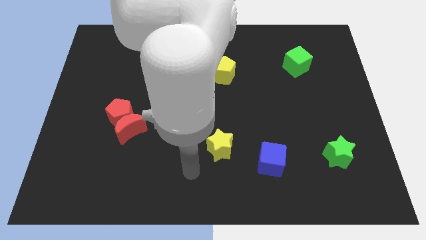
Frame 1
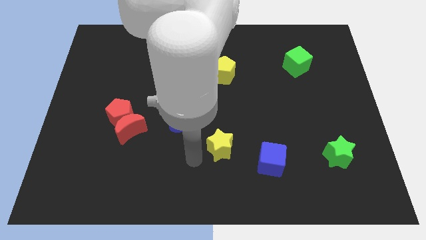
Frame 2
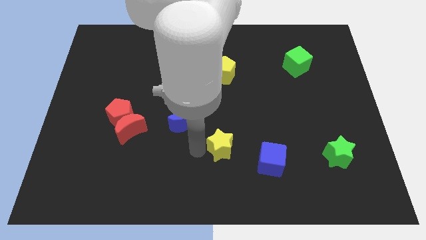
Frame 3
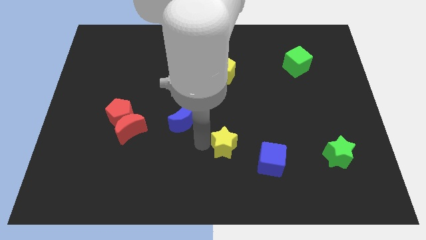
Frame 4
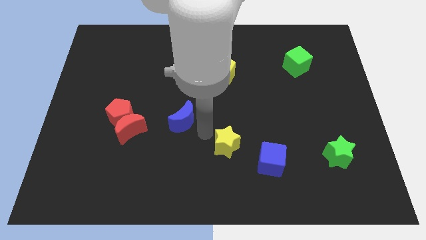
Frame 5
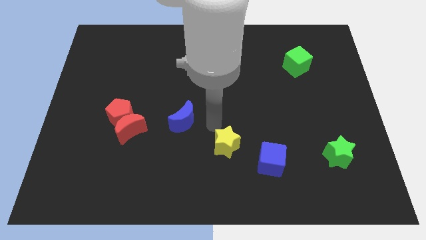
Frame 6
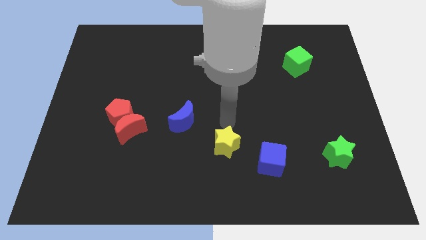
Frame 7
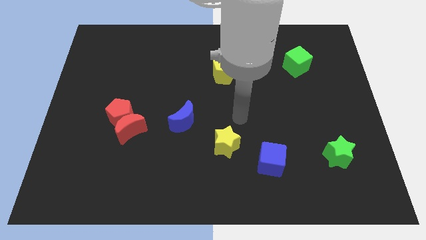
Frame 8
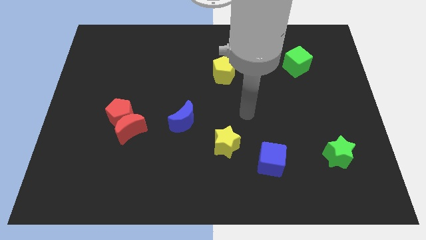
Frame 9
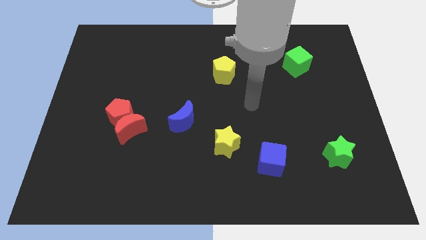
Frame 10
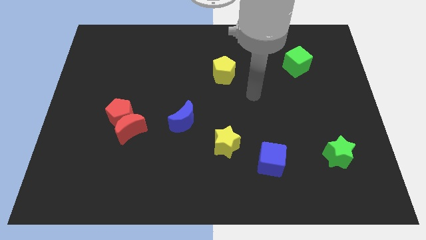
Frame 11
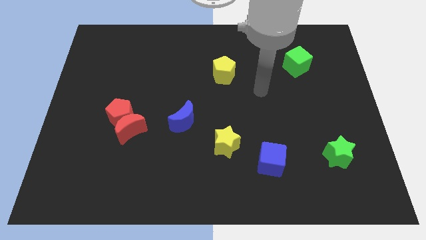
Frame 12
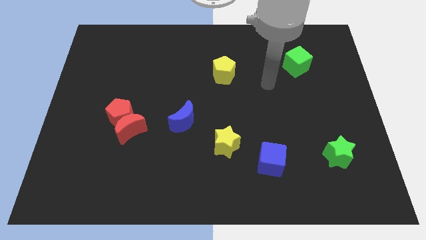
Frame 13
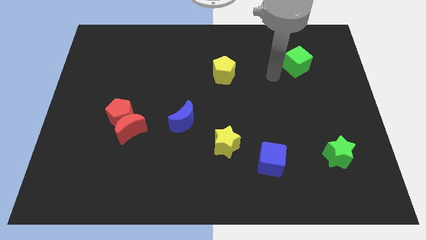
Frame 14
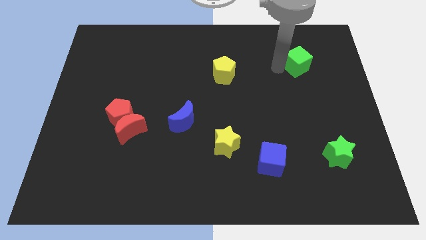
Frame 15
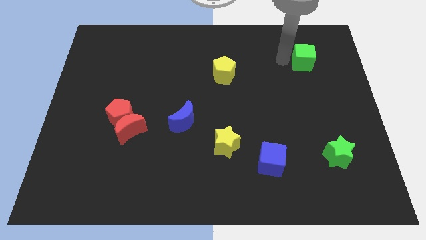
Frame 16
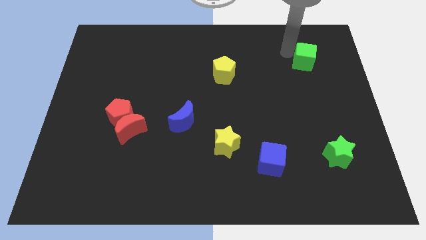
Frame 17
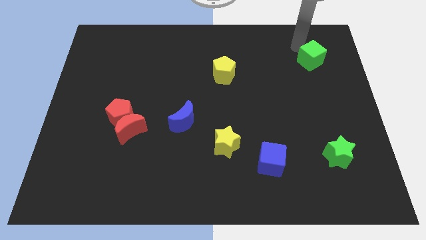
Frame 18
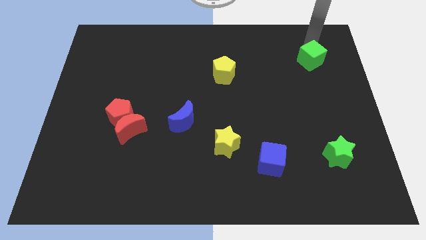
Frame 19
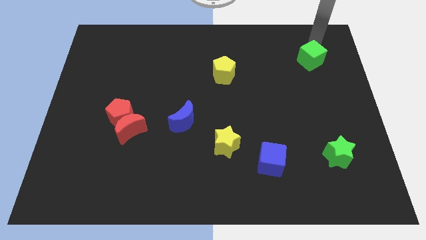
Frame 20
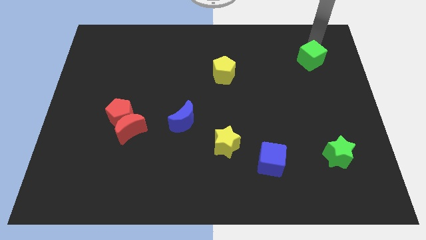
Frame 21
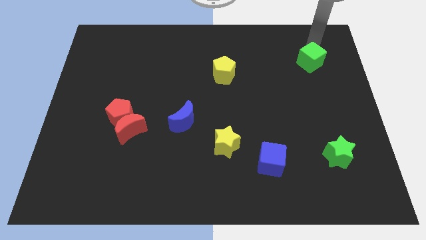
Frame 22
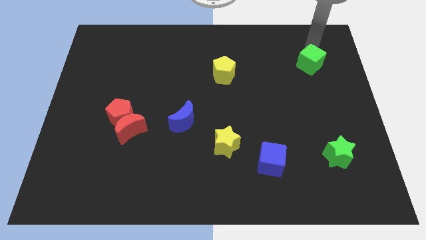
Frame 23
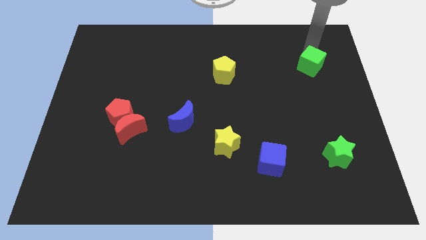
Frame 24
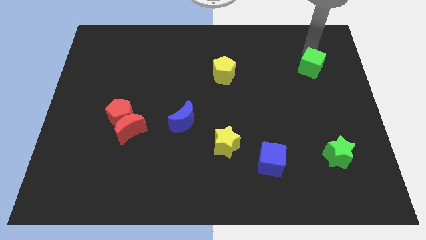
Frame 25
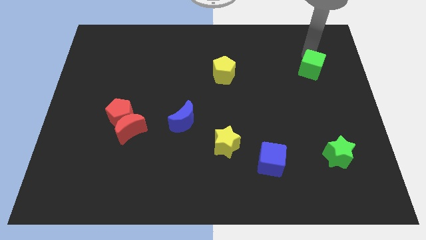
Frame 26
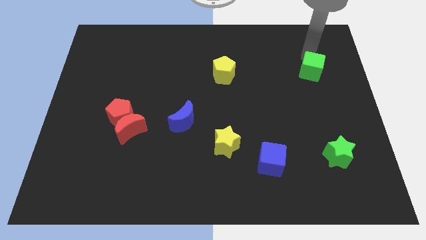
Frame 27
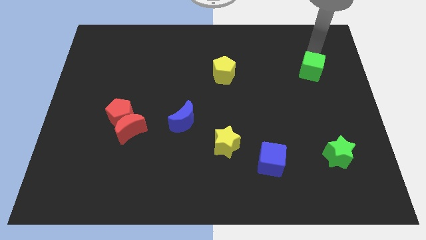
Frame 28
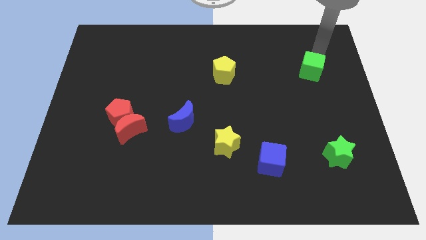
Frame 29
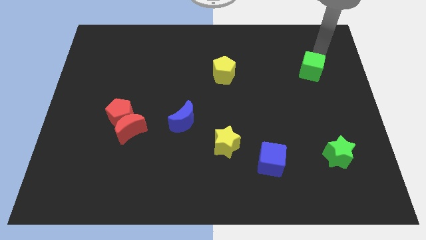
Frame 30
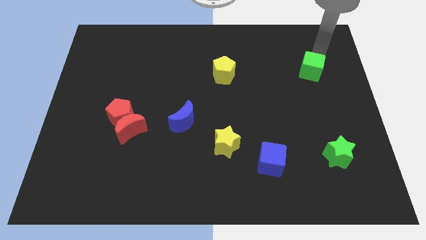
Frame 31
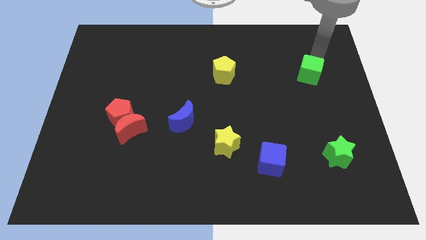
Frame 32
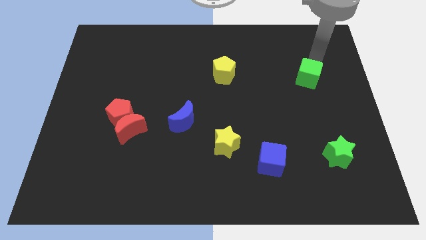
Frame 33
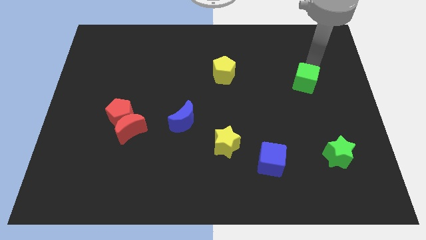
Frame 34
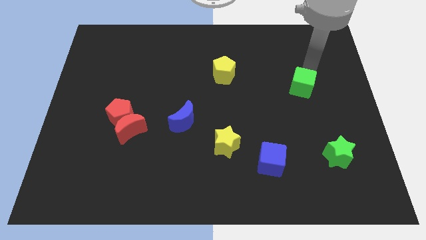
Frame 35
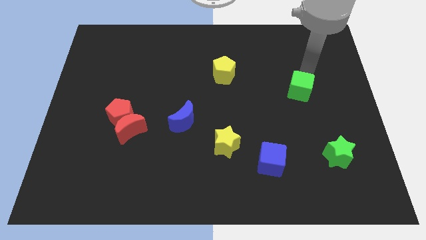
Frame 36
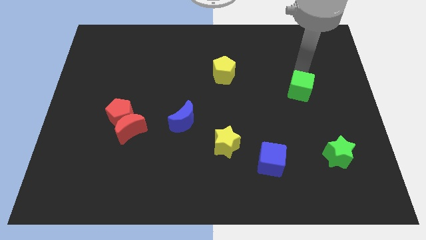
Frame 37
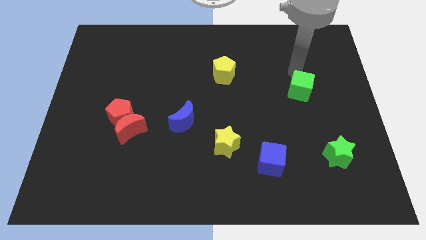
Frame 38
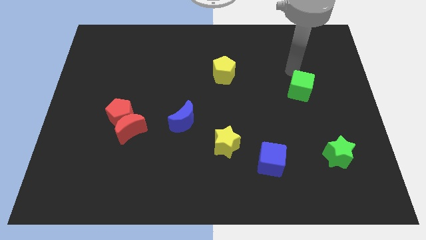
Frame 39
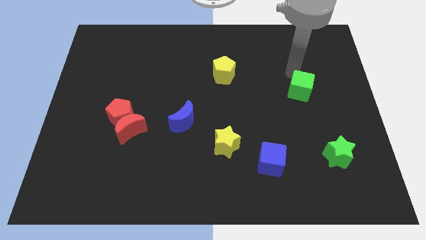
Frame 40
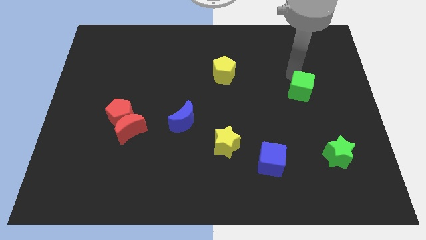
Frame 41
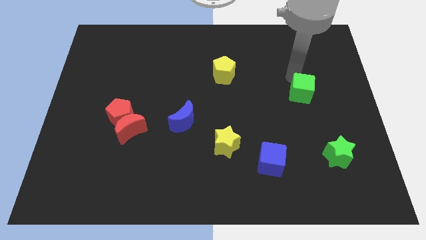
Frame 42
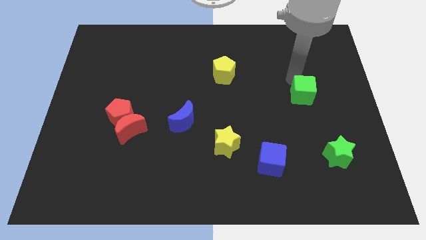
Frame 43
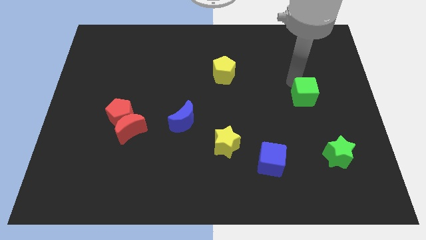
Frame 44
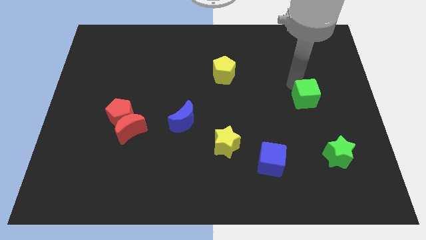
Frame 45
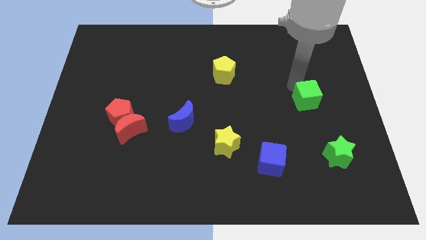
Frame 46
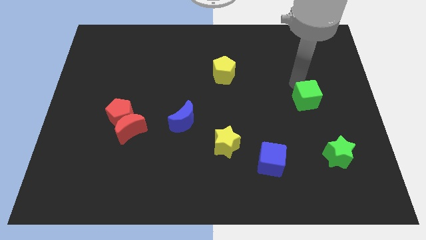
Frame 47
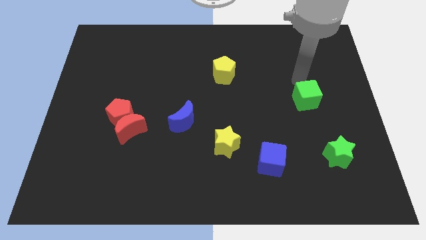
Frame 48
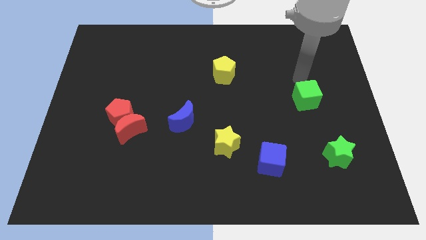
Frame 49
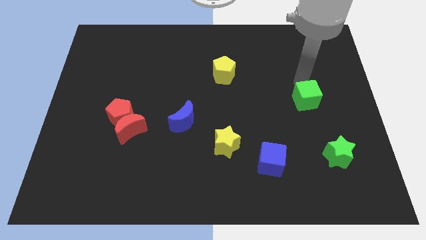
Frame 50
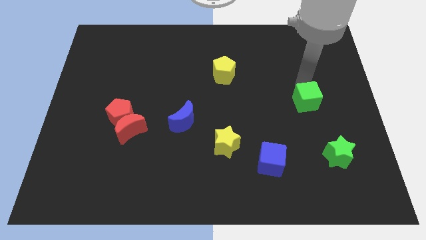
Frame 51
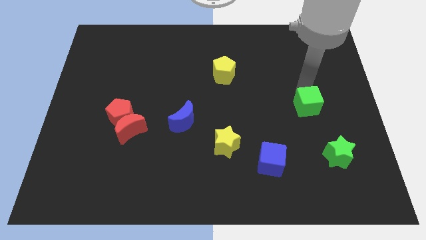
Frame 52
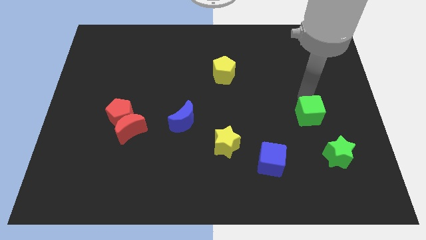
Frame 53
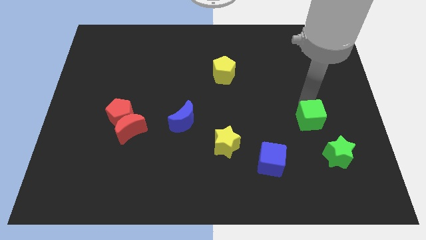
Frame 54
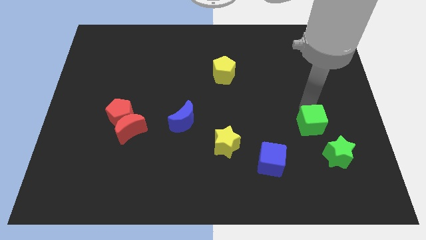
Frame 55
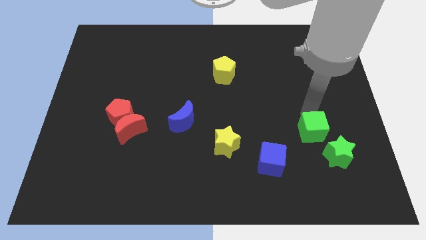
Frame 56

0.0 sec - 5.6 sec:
push the green cube down

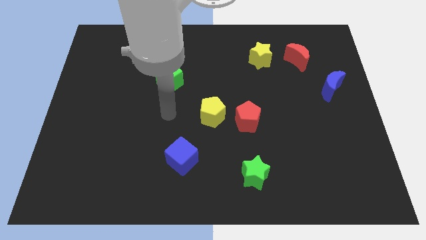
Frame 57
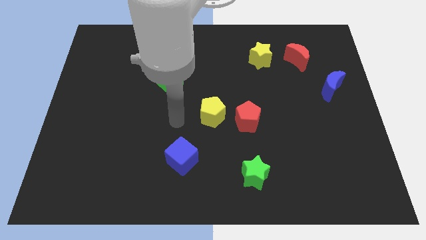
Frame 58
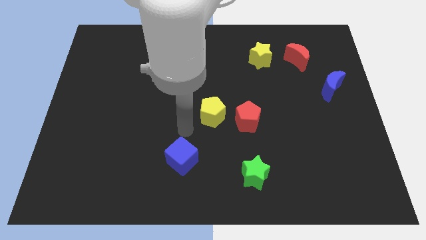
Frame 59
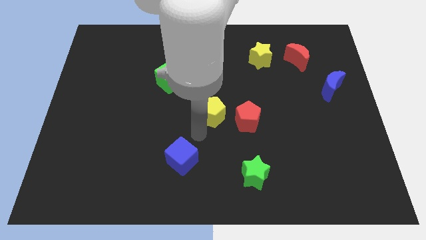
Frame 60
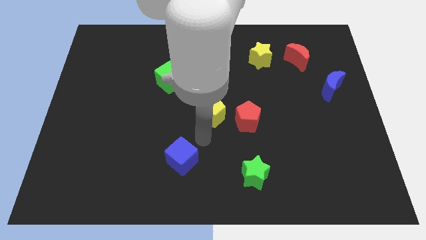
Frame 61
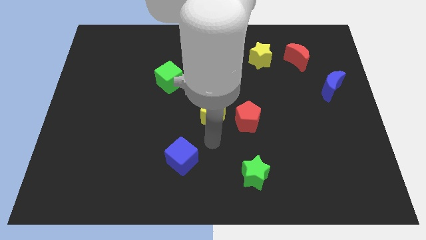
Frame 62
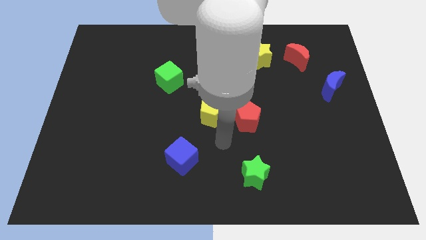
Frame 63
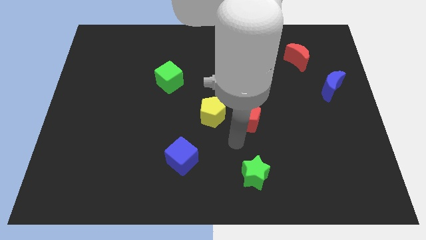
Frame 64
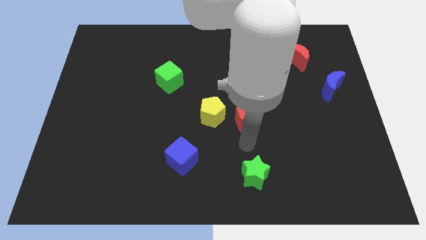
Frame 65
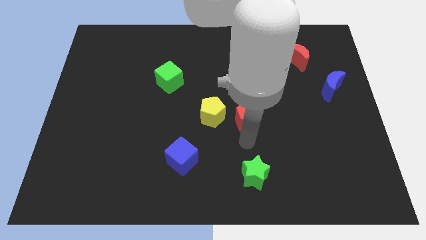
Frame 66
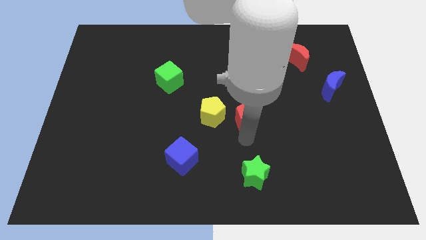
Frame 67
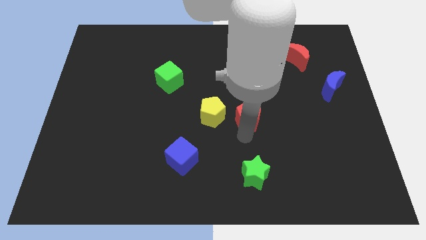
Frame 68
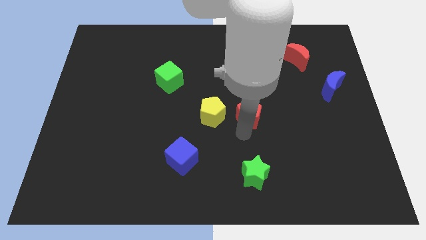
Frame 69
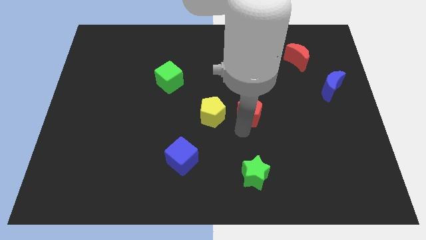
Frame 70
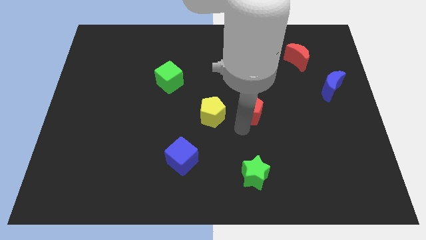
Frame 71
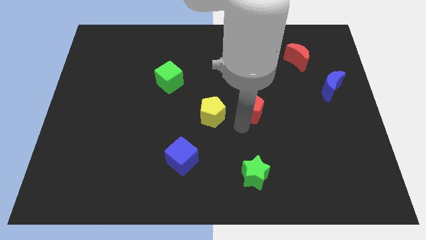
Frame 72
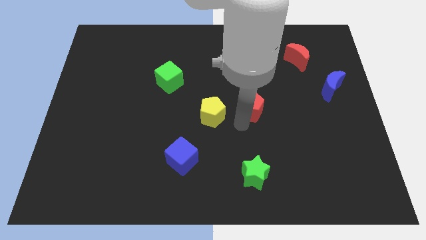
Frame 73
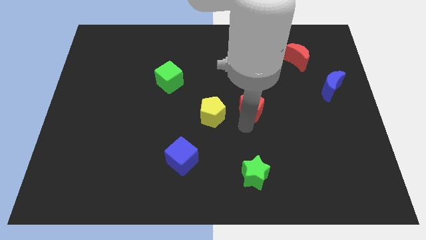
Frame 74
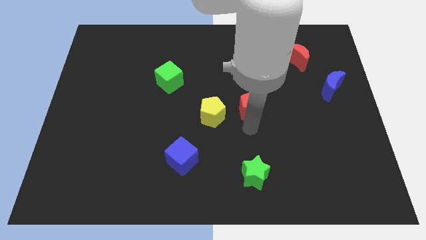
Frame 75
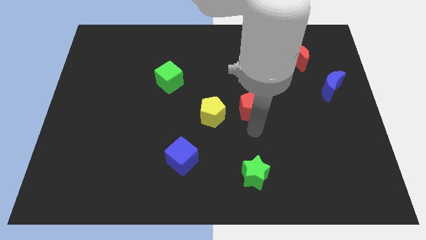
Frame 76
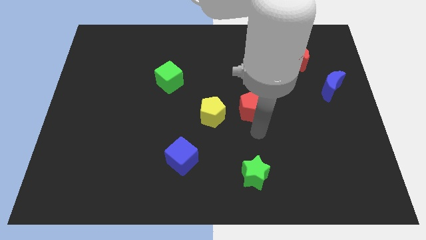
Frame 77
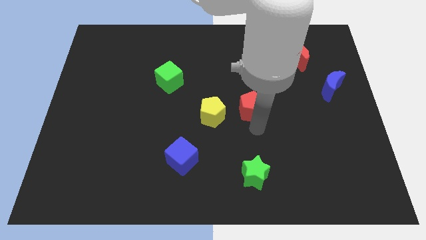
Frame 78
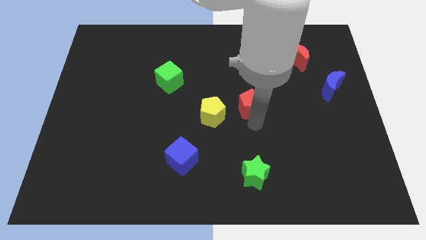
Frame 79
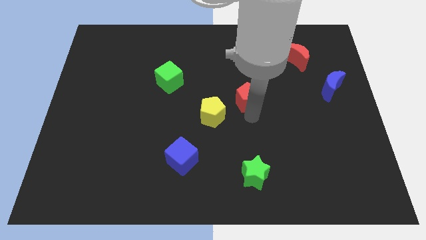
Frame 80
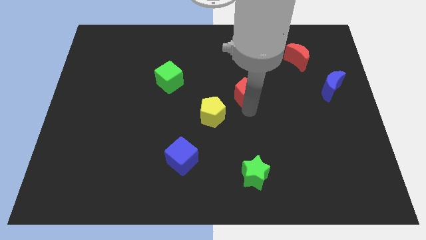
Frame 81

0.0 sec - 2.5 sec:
move the red pentagon somewhat up
